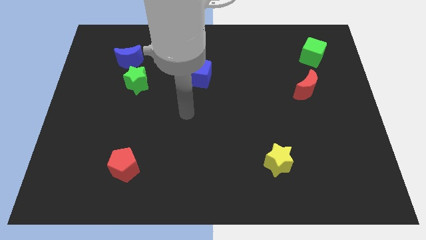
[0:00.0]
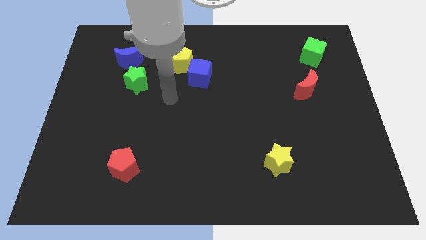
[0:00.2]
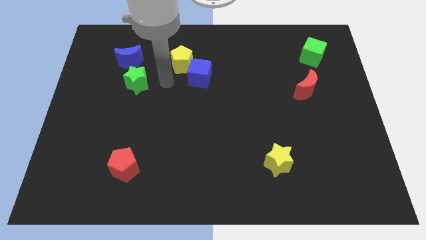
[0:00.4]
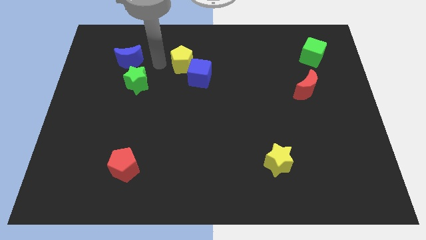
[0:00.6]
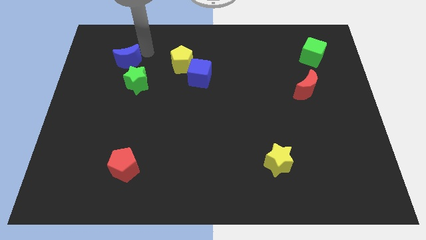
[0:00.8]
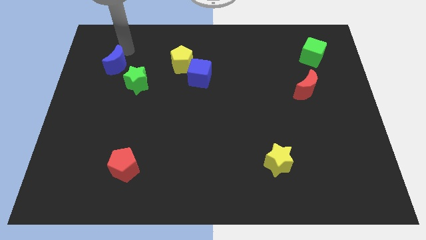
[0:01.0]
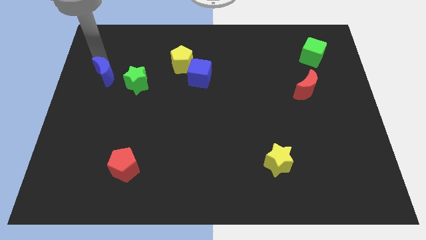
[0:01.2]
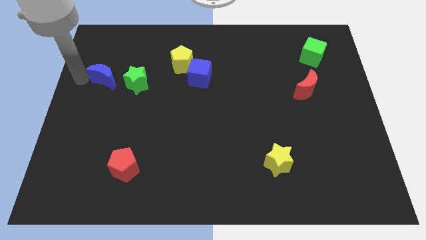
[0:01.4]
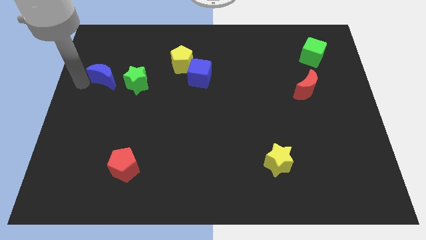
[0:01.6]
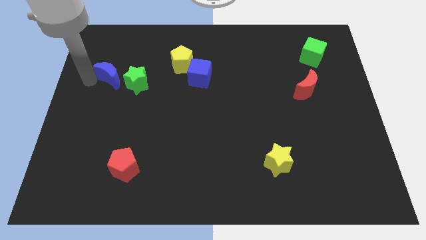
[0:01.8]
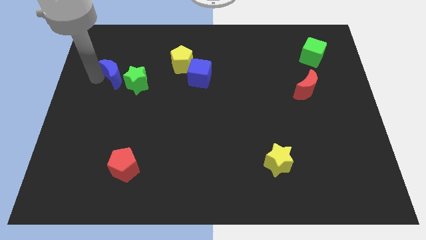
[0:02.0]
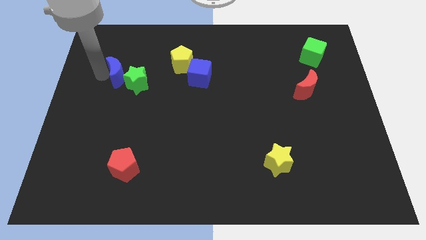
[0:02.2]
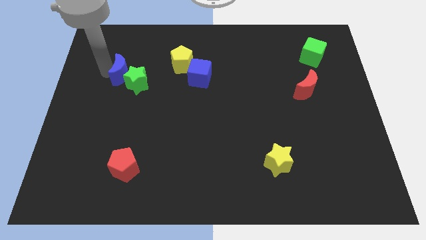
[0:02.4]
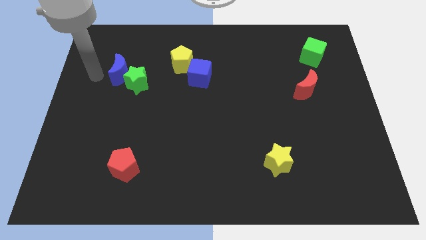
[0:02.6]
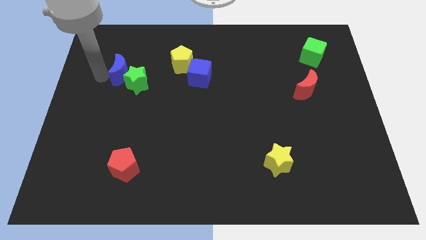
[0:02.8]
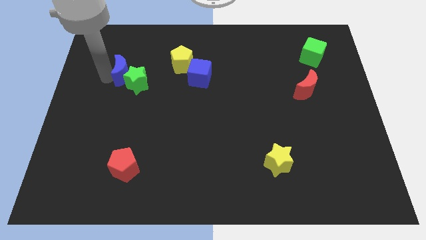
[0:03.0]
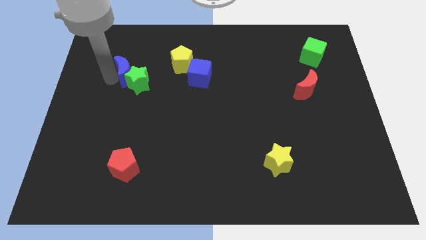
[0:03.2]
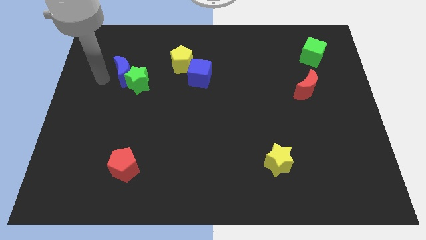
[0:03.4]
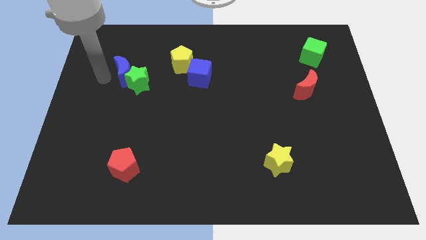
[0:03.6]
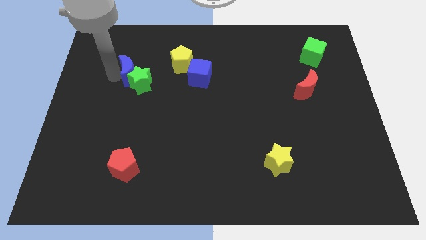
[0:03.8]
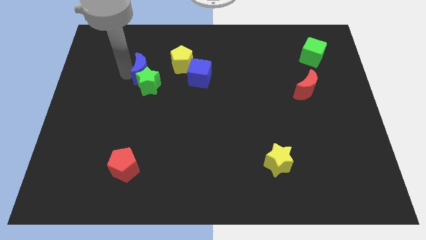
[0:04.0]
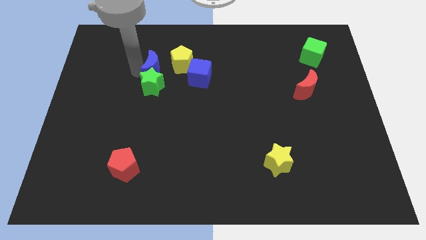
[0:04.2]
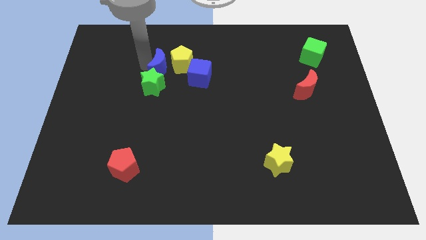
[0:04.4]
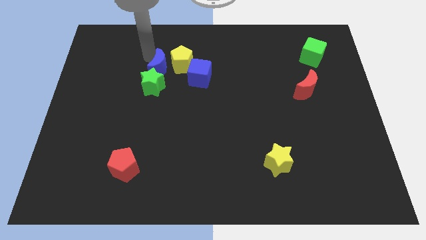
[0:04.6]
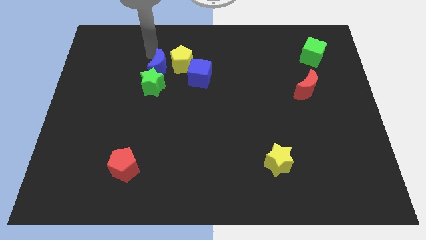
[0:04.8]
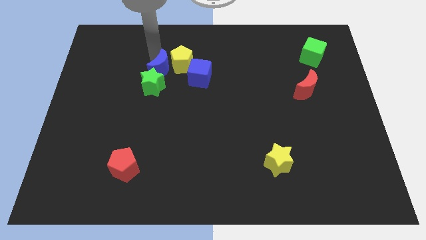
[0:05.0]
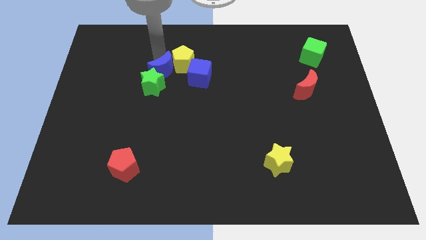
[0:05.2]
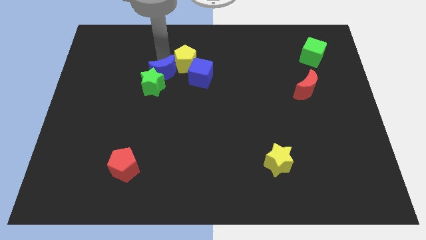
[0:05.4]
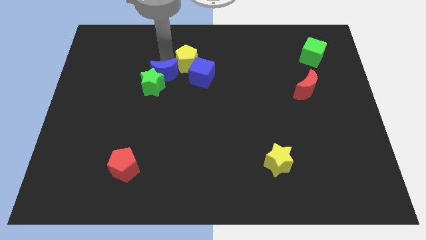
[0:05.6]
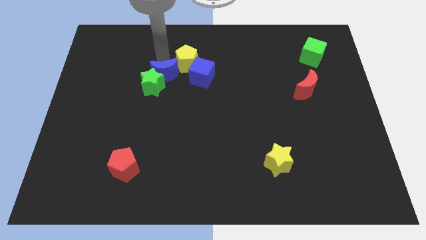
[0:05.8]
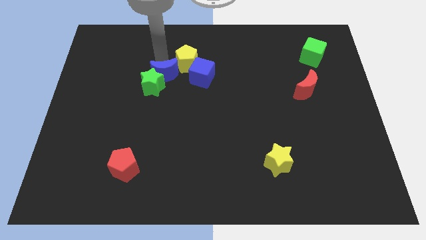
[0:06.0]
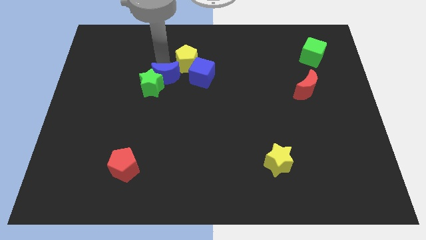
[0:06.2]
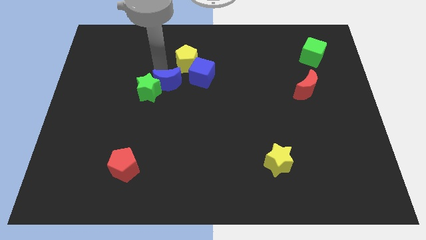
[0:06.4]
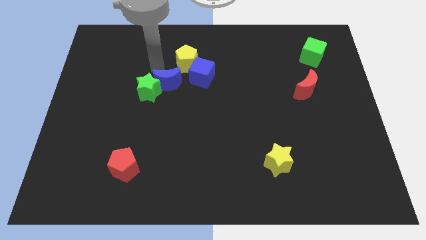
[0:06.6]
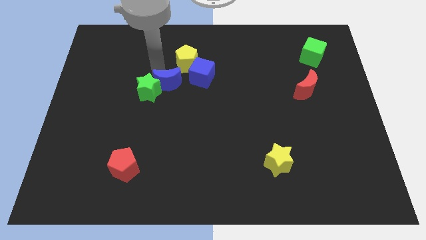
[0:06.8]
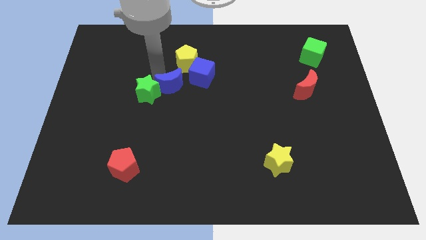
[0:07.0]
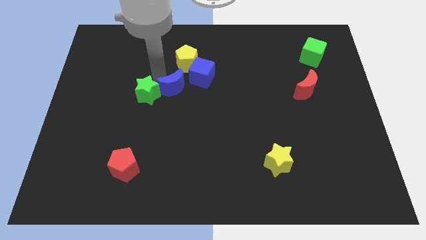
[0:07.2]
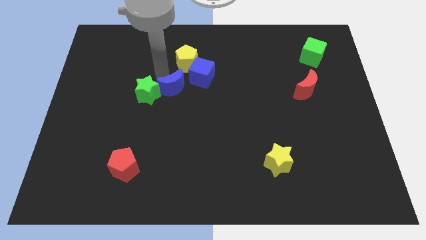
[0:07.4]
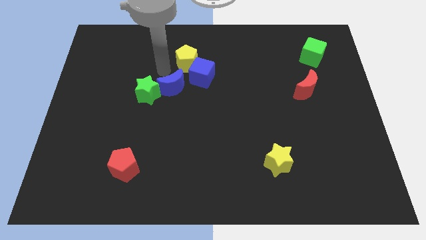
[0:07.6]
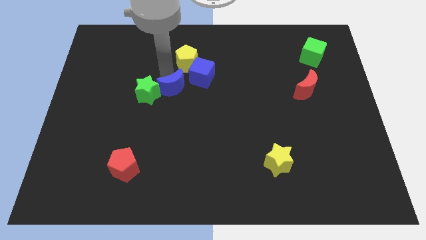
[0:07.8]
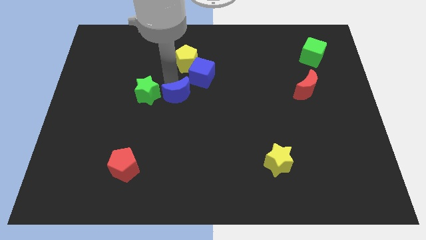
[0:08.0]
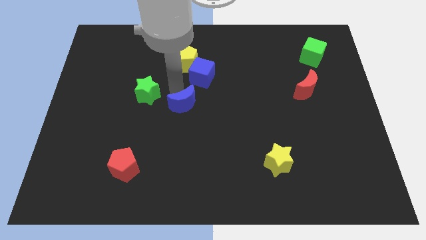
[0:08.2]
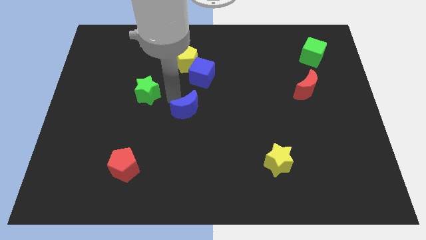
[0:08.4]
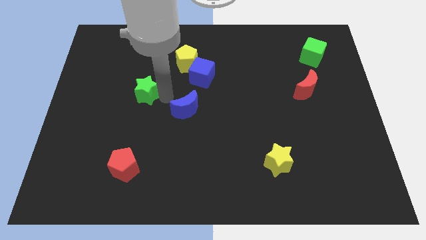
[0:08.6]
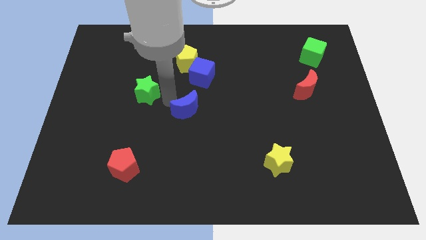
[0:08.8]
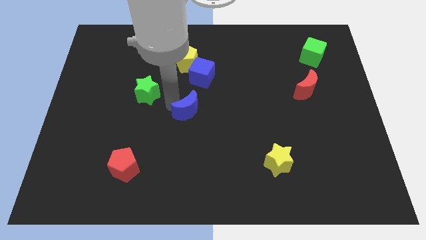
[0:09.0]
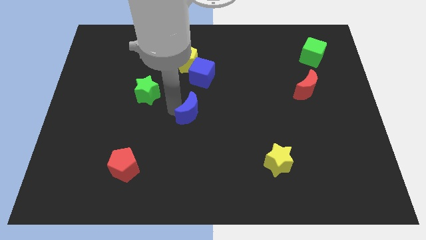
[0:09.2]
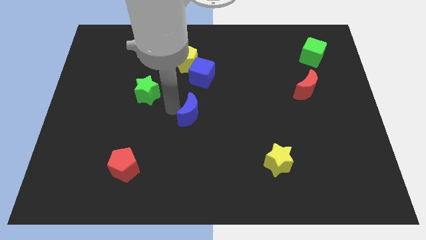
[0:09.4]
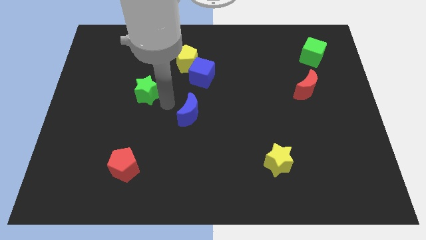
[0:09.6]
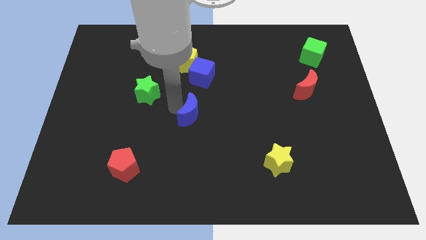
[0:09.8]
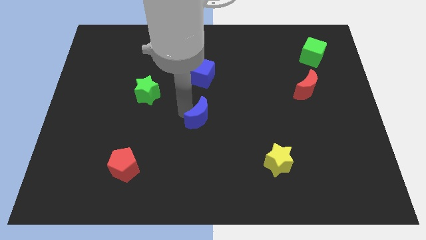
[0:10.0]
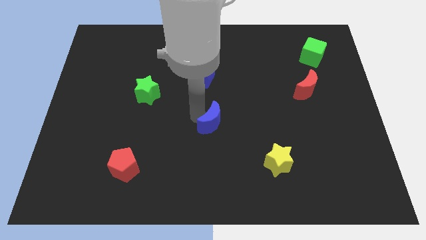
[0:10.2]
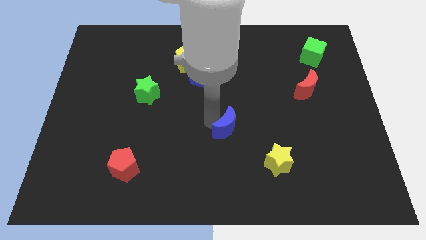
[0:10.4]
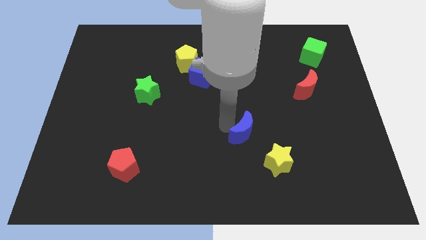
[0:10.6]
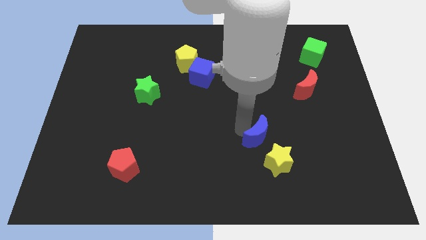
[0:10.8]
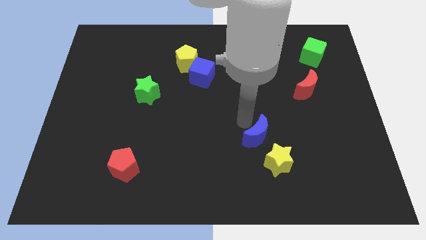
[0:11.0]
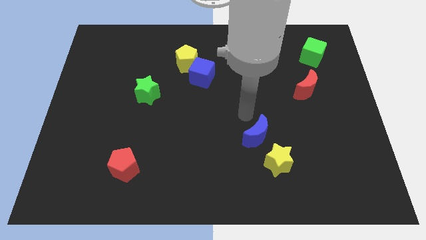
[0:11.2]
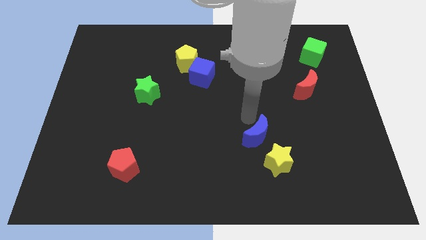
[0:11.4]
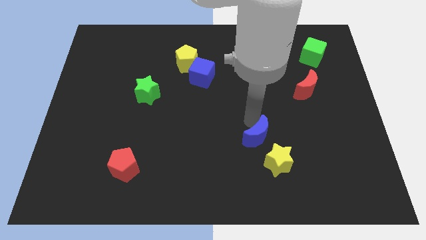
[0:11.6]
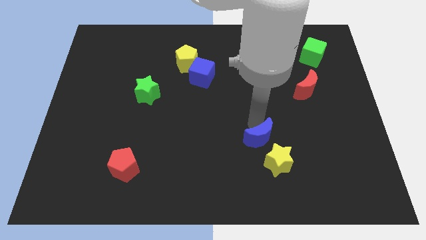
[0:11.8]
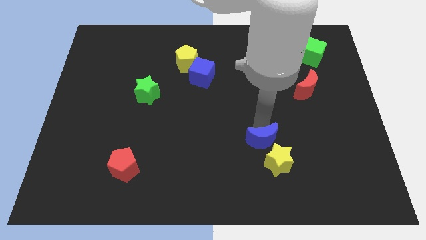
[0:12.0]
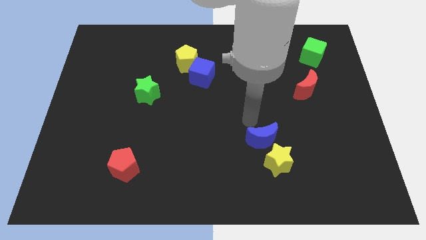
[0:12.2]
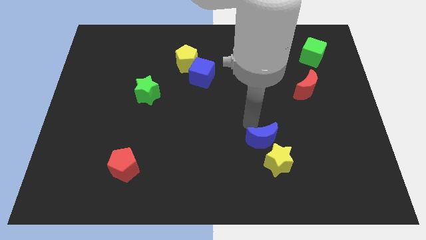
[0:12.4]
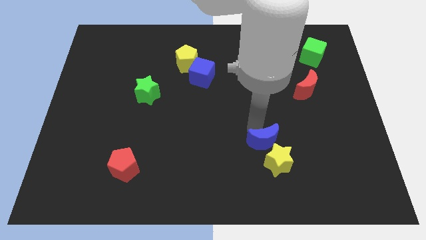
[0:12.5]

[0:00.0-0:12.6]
put the blue moon next to the yellow star
